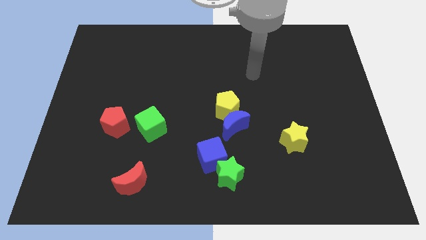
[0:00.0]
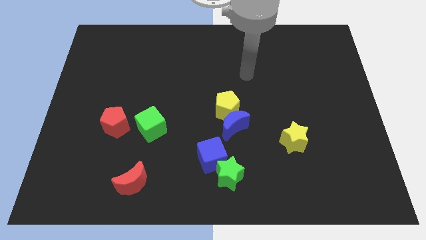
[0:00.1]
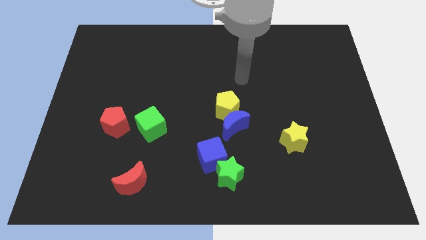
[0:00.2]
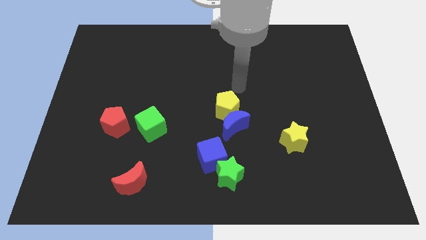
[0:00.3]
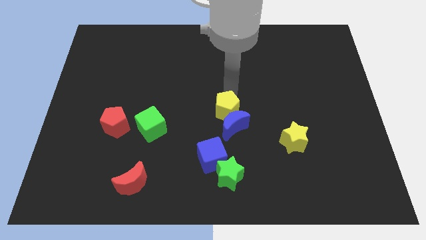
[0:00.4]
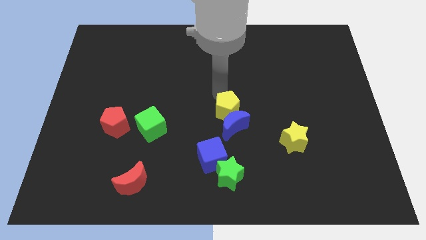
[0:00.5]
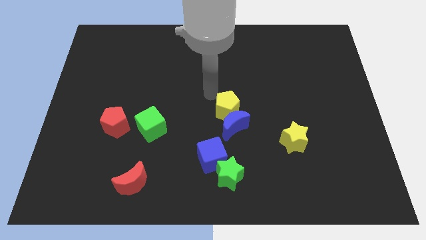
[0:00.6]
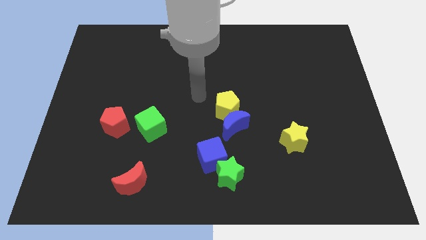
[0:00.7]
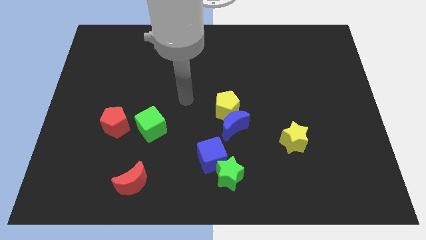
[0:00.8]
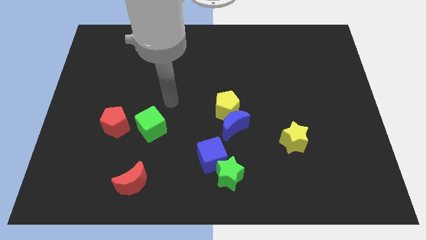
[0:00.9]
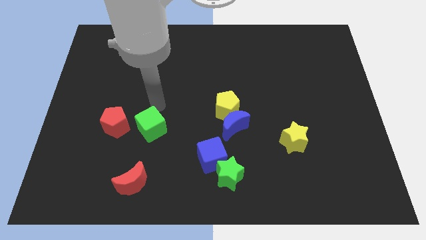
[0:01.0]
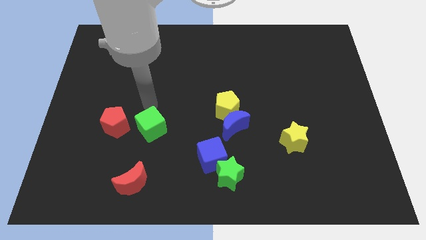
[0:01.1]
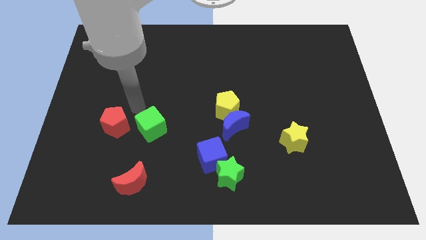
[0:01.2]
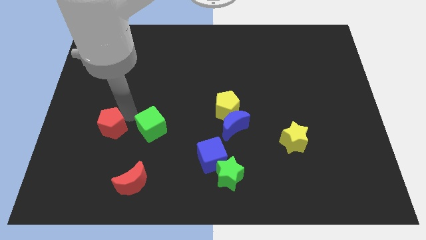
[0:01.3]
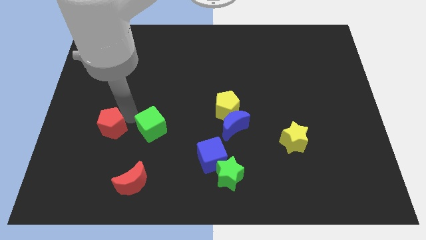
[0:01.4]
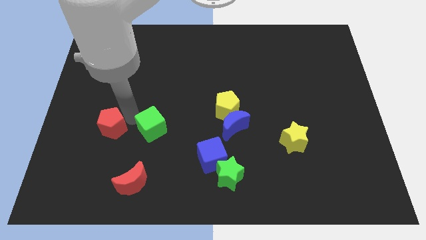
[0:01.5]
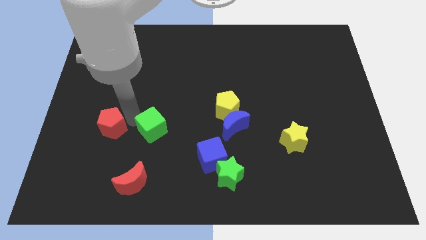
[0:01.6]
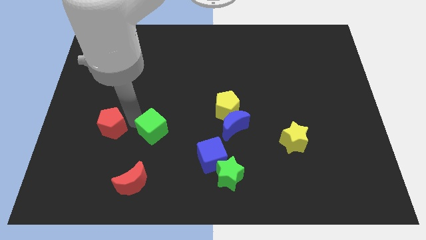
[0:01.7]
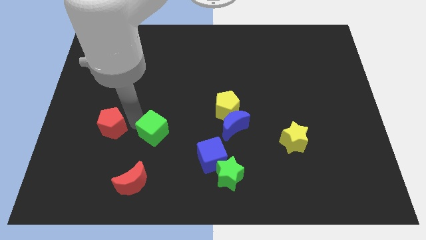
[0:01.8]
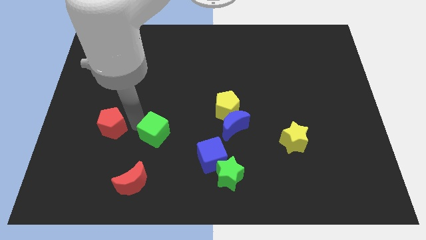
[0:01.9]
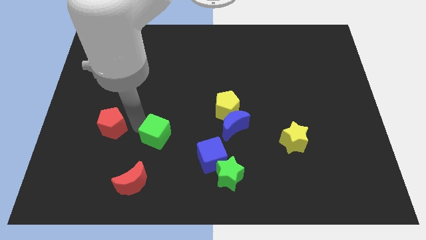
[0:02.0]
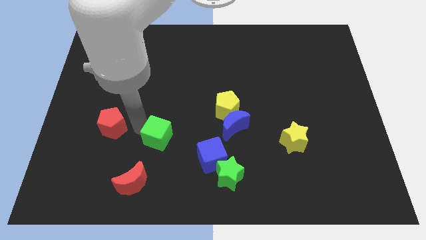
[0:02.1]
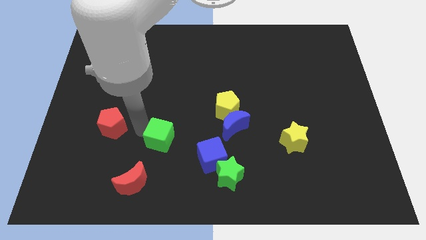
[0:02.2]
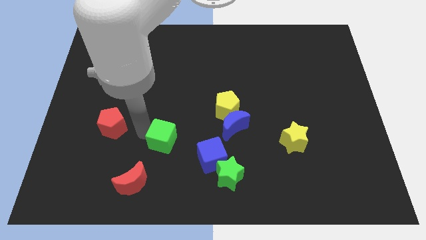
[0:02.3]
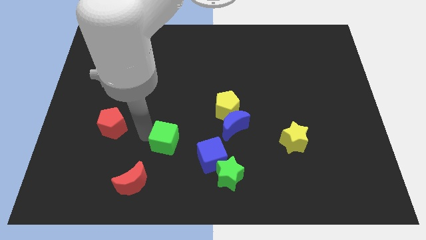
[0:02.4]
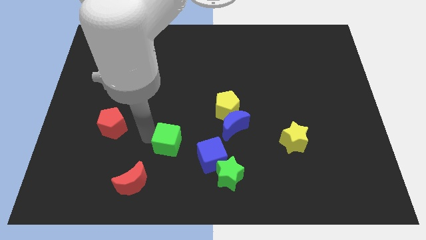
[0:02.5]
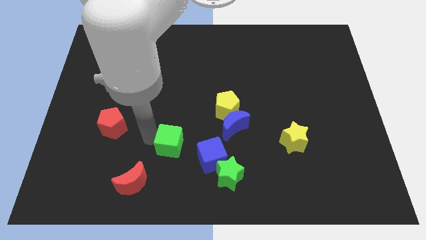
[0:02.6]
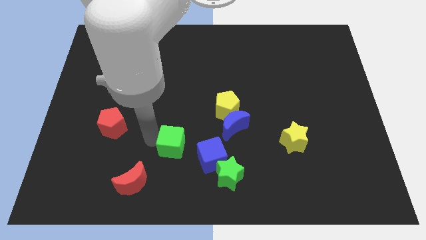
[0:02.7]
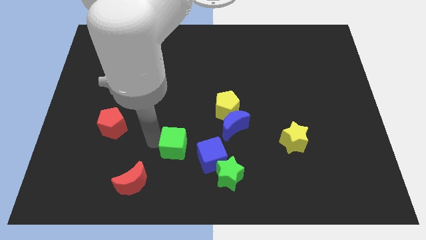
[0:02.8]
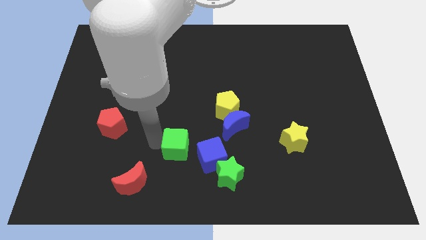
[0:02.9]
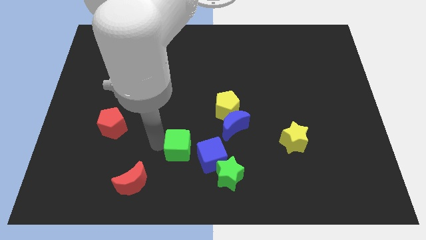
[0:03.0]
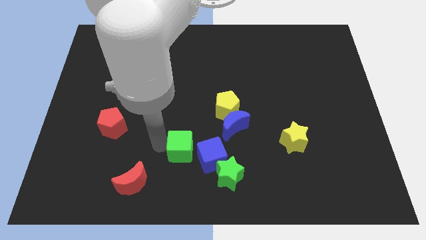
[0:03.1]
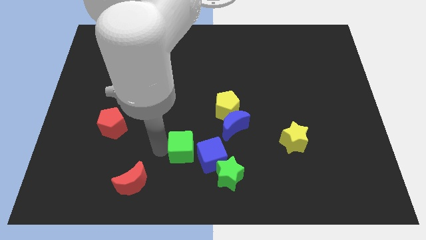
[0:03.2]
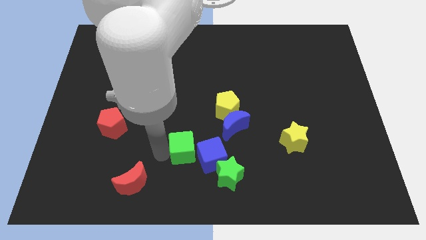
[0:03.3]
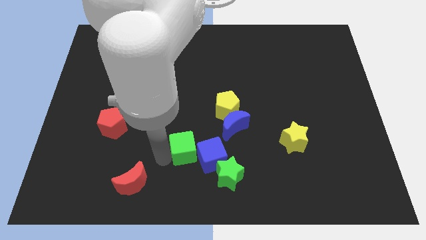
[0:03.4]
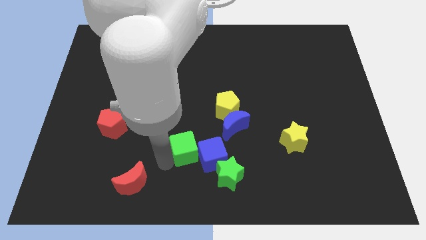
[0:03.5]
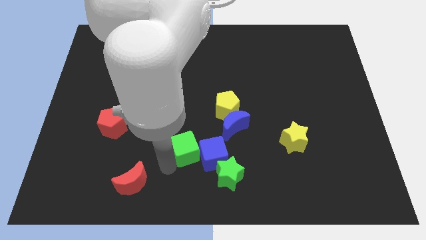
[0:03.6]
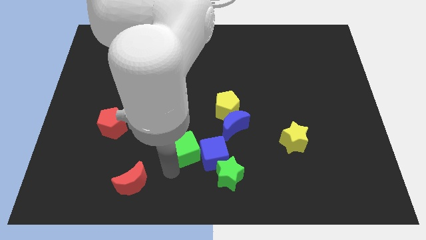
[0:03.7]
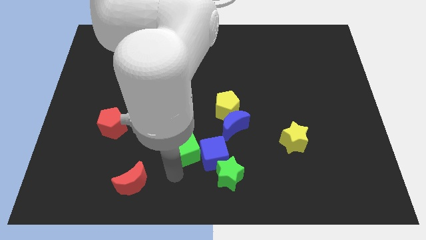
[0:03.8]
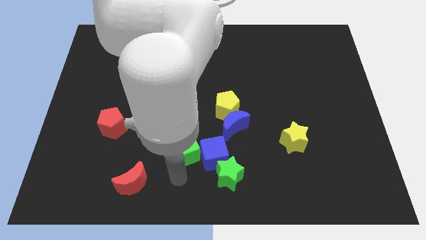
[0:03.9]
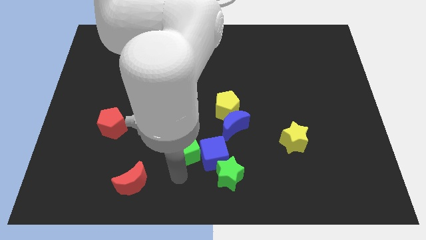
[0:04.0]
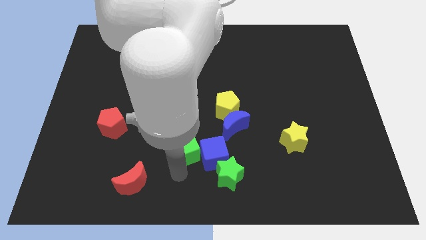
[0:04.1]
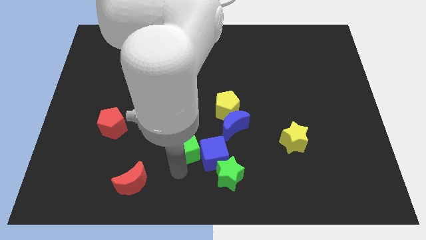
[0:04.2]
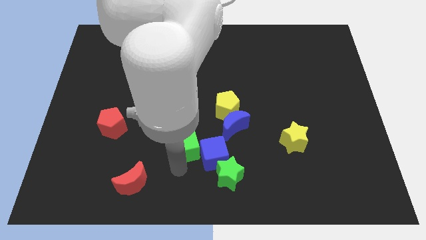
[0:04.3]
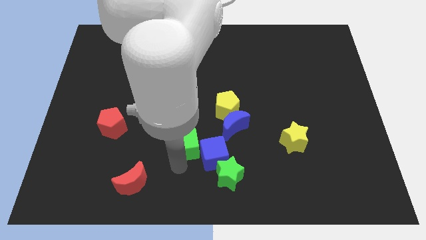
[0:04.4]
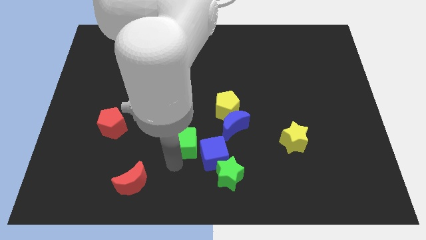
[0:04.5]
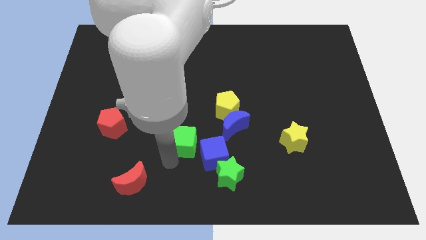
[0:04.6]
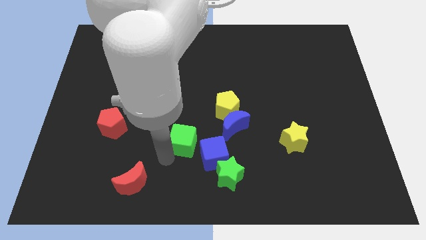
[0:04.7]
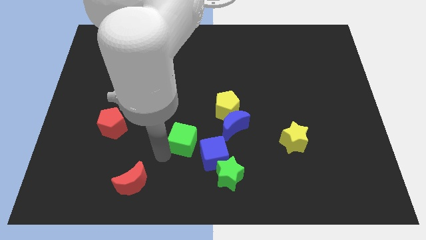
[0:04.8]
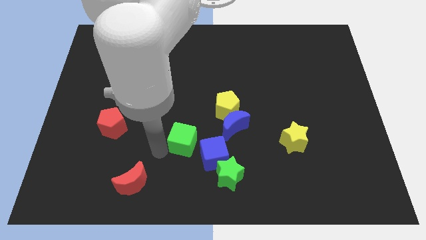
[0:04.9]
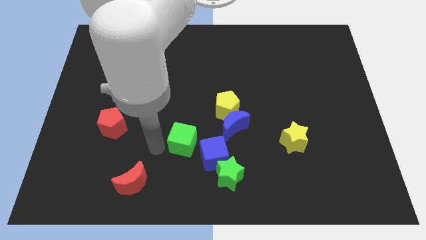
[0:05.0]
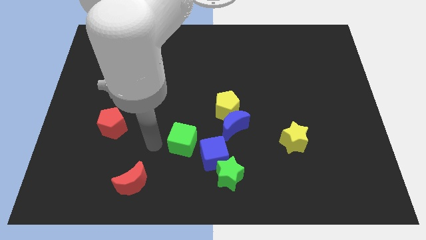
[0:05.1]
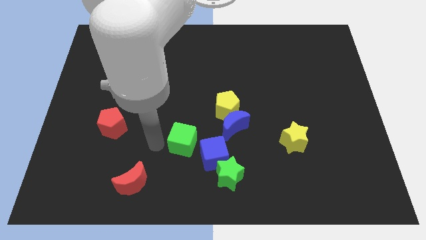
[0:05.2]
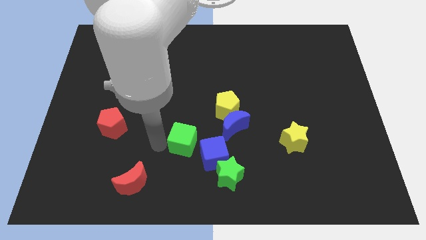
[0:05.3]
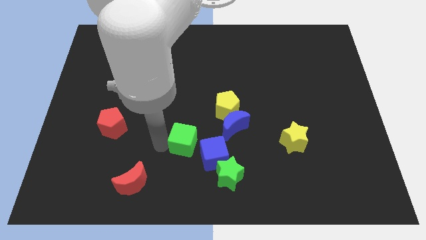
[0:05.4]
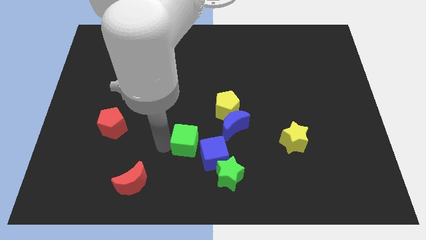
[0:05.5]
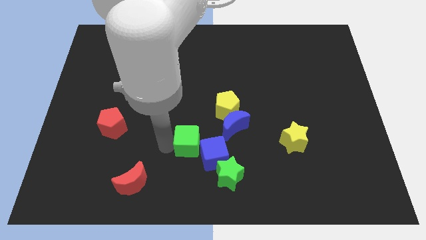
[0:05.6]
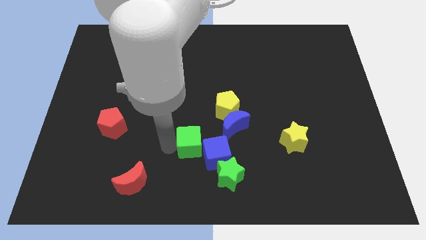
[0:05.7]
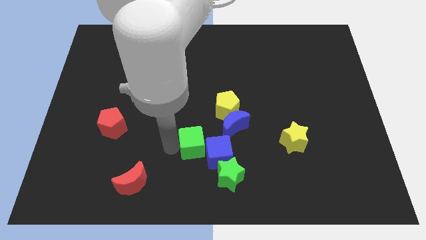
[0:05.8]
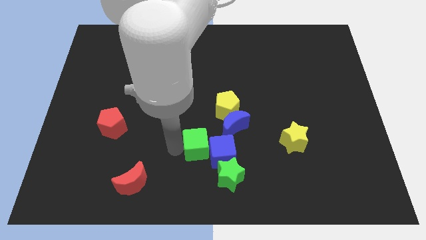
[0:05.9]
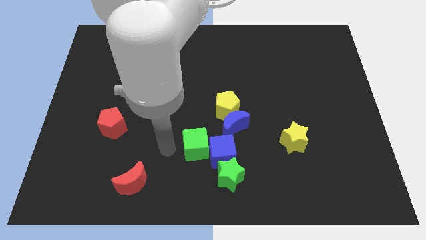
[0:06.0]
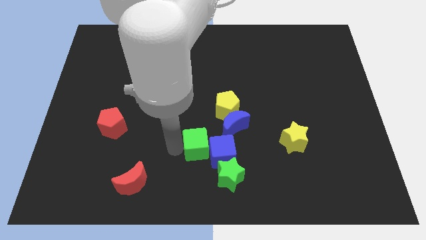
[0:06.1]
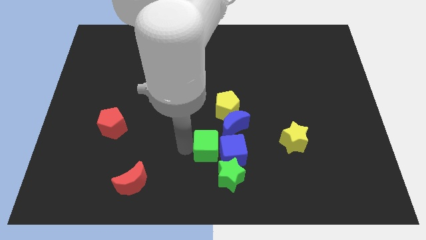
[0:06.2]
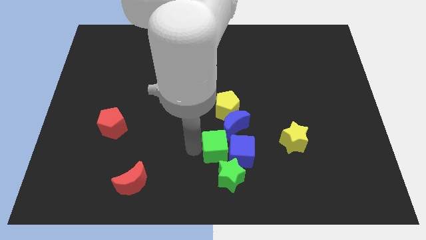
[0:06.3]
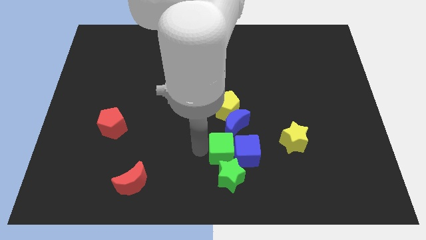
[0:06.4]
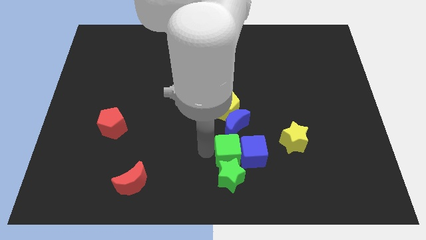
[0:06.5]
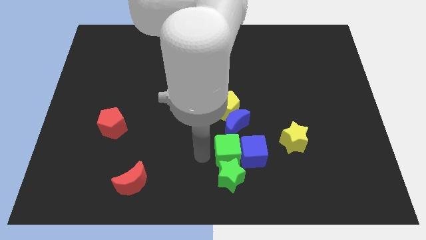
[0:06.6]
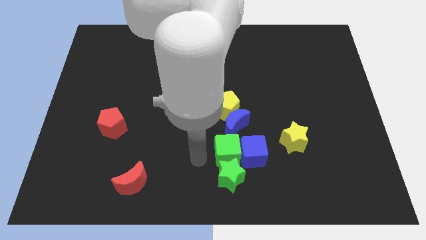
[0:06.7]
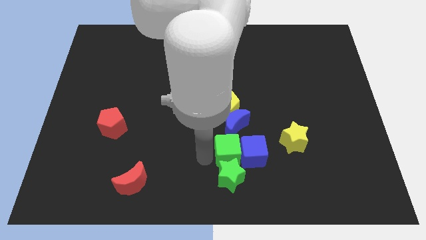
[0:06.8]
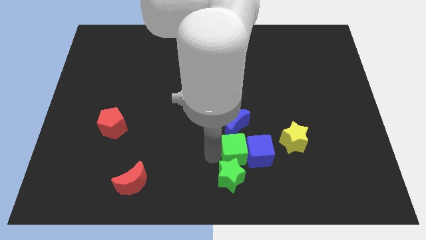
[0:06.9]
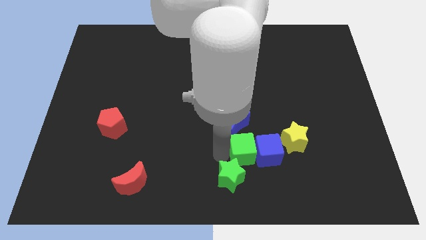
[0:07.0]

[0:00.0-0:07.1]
slide the green cube diagonally down and to the right of the blue moon
